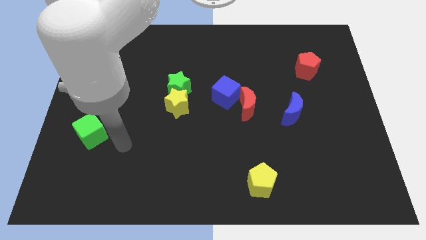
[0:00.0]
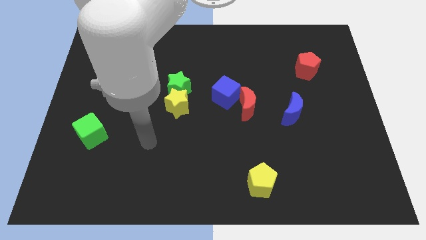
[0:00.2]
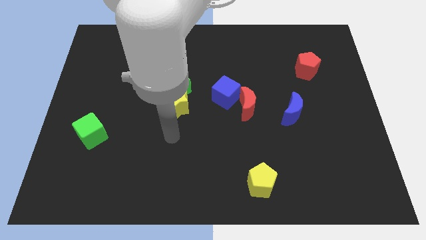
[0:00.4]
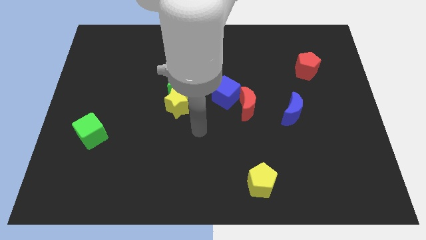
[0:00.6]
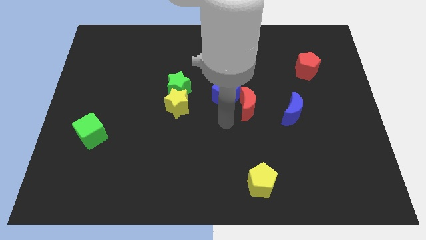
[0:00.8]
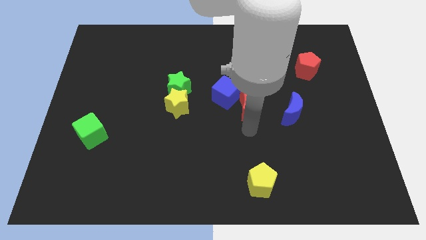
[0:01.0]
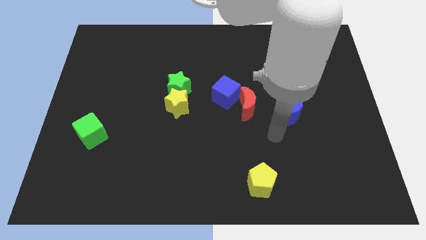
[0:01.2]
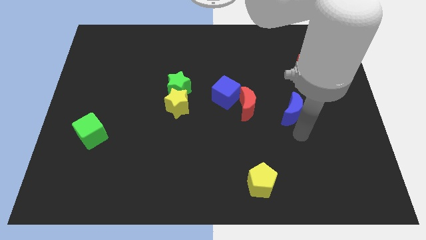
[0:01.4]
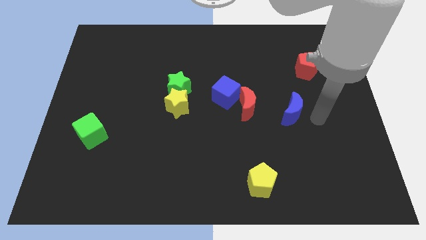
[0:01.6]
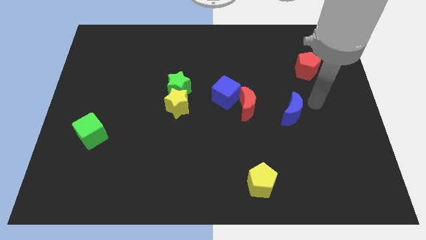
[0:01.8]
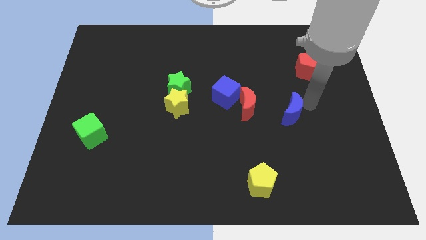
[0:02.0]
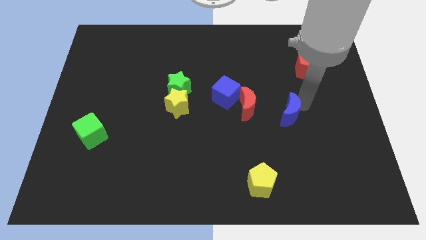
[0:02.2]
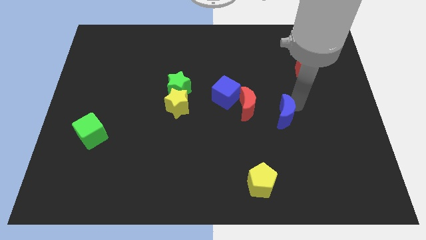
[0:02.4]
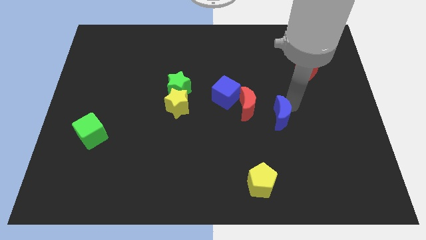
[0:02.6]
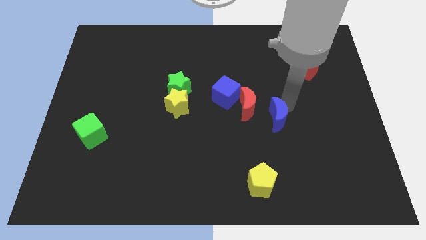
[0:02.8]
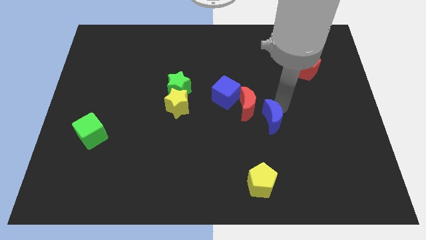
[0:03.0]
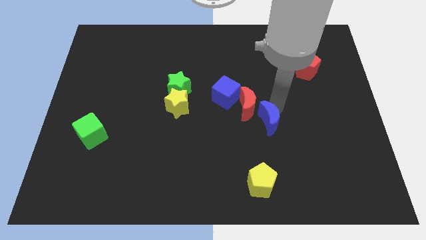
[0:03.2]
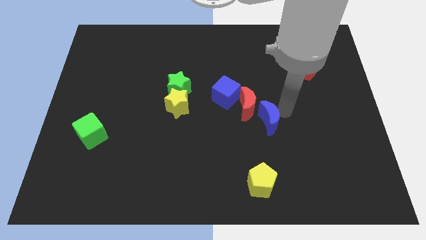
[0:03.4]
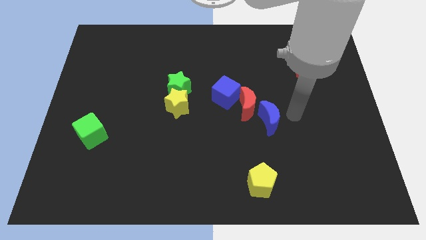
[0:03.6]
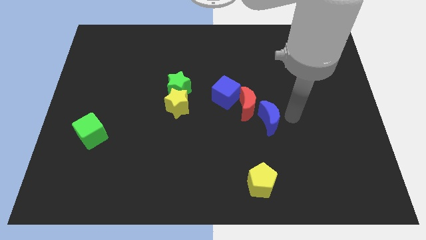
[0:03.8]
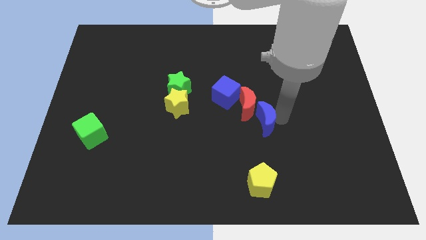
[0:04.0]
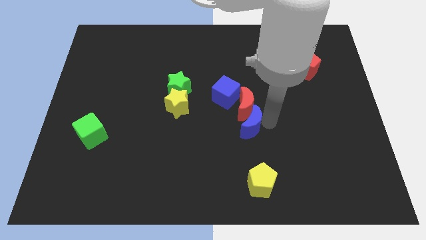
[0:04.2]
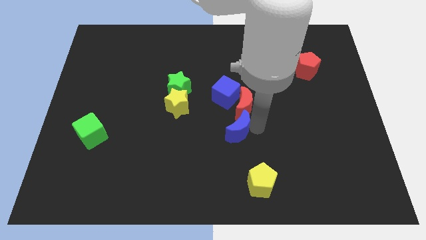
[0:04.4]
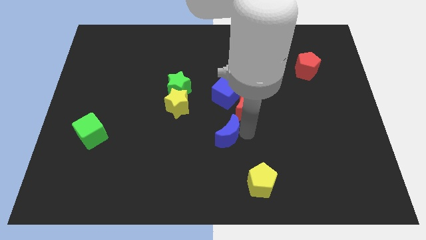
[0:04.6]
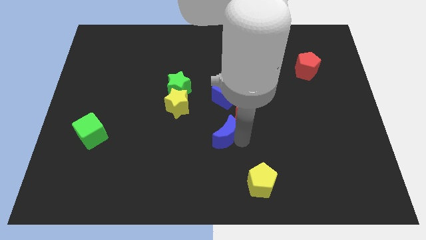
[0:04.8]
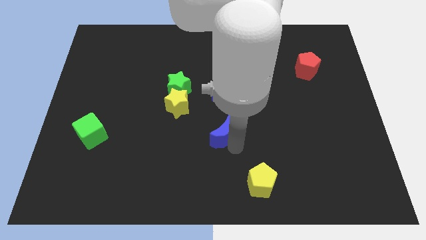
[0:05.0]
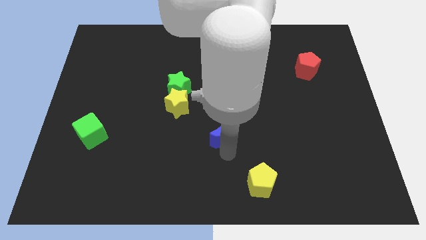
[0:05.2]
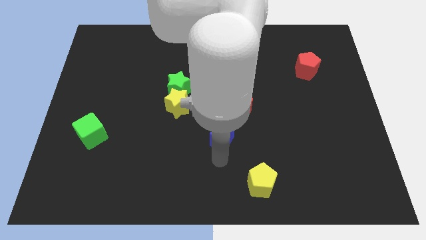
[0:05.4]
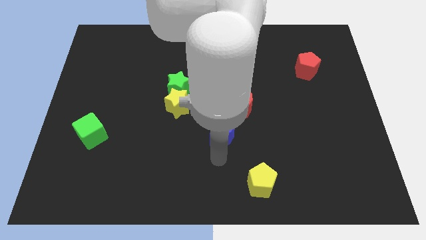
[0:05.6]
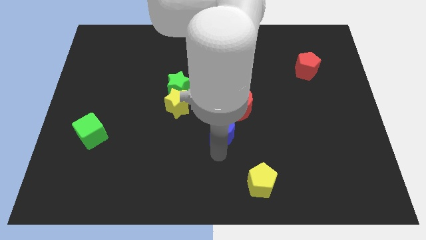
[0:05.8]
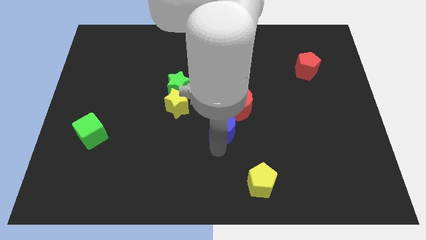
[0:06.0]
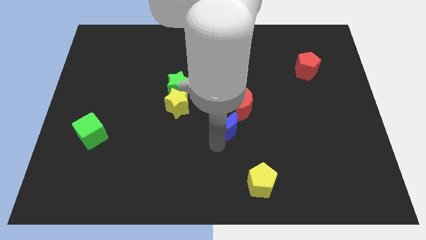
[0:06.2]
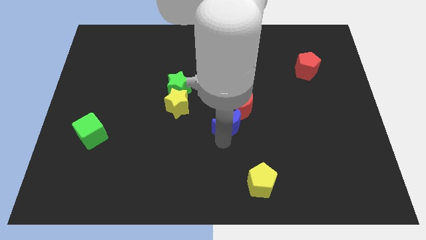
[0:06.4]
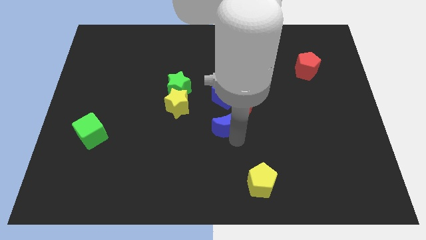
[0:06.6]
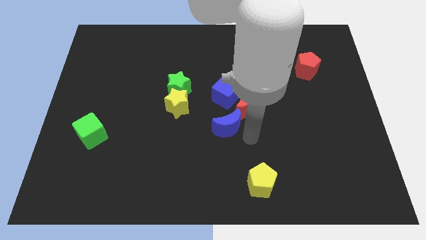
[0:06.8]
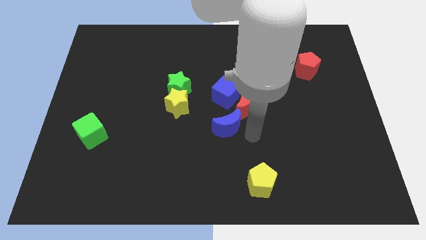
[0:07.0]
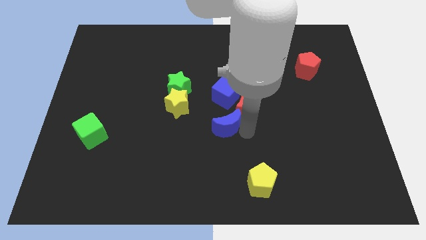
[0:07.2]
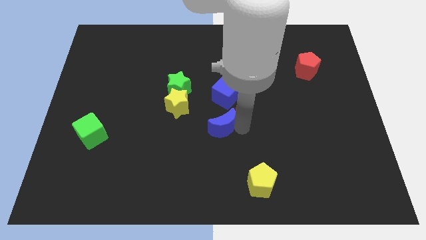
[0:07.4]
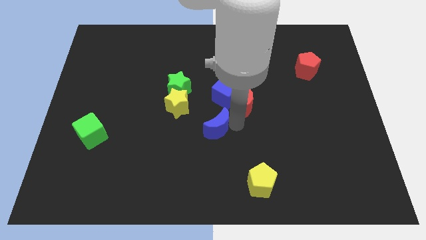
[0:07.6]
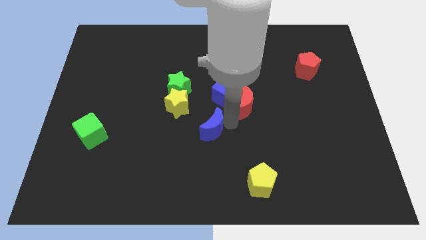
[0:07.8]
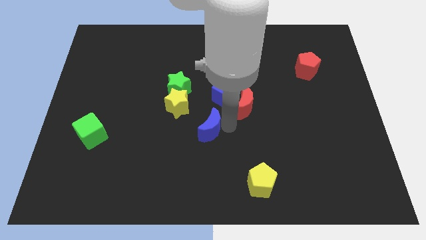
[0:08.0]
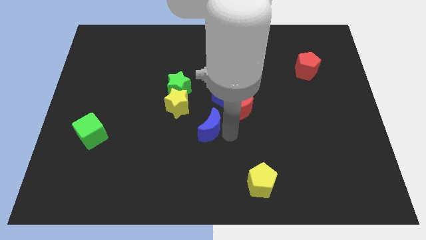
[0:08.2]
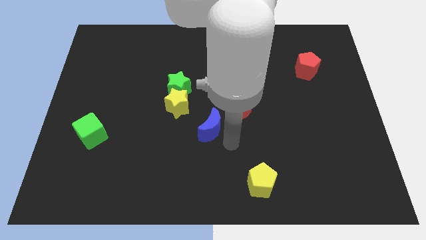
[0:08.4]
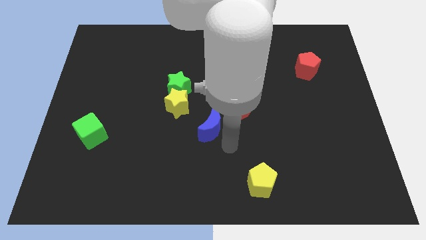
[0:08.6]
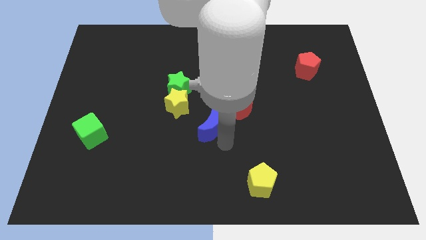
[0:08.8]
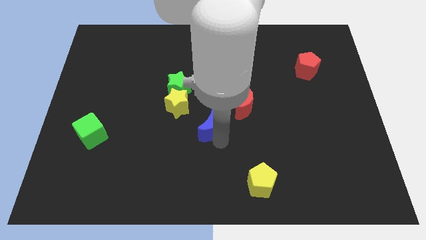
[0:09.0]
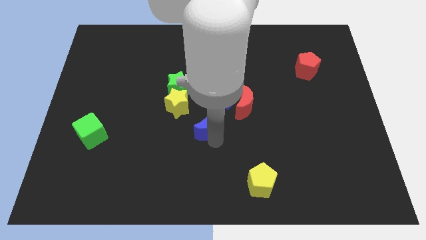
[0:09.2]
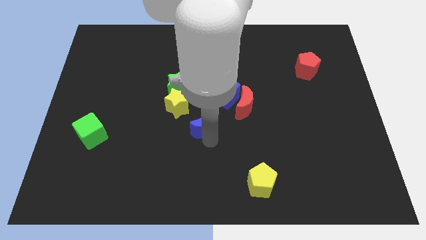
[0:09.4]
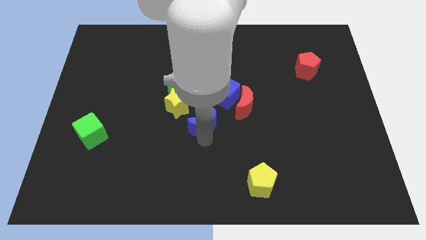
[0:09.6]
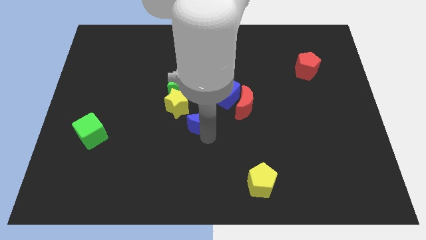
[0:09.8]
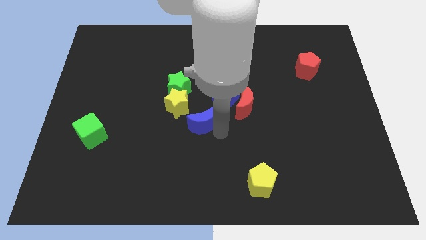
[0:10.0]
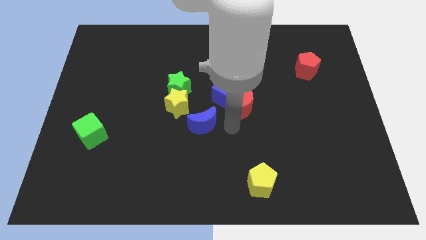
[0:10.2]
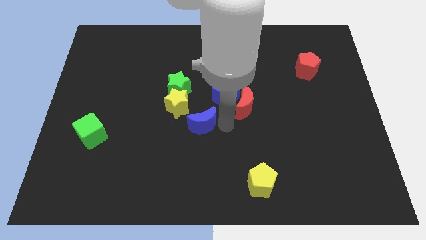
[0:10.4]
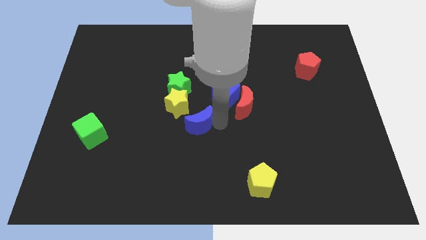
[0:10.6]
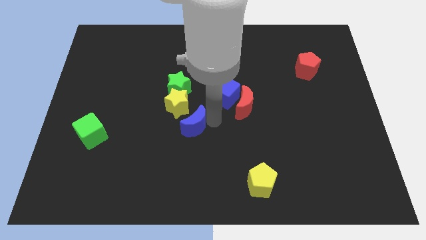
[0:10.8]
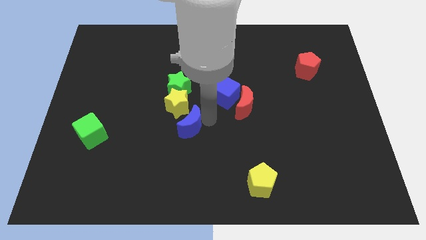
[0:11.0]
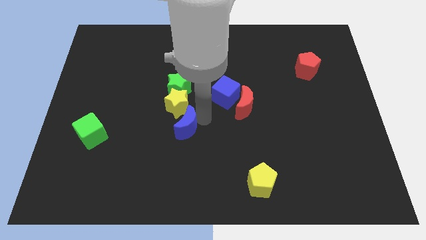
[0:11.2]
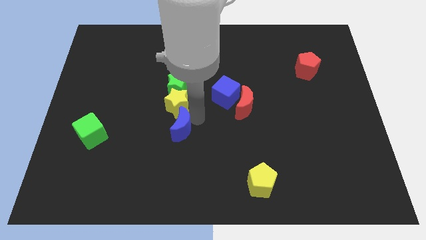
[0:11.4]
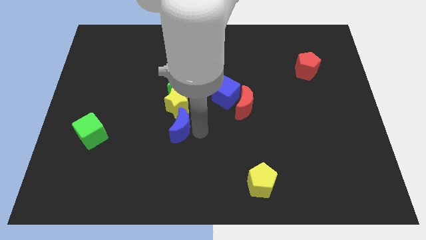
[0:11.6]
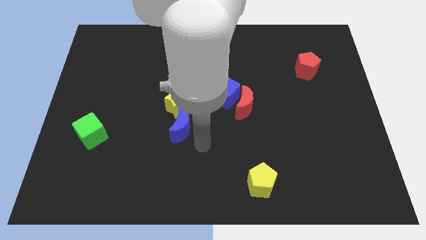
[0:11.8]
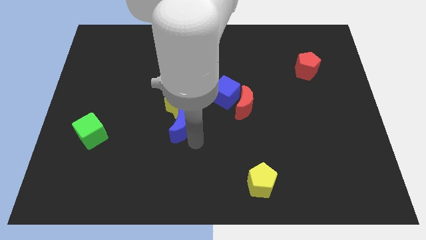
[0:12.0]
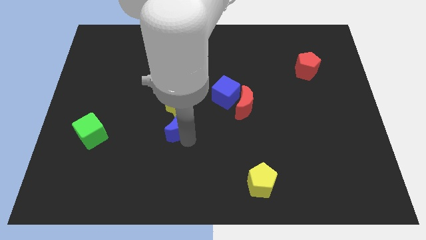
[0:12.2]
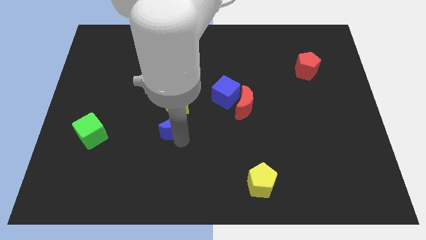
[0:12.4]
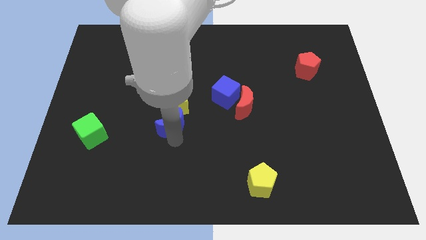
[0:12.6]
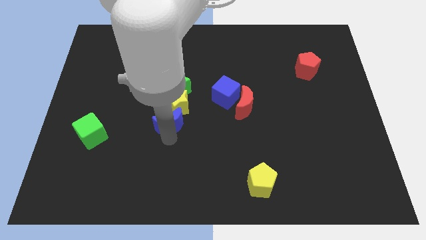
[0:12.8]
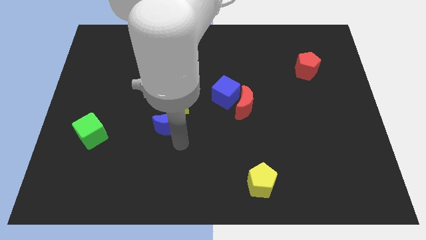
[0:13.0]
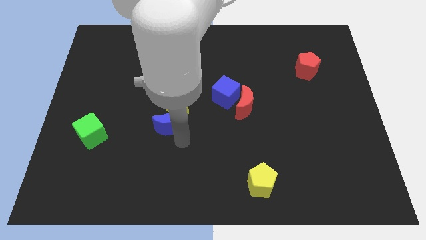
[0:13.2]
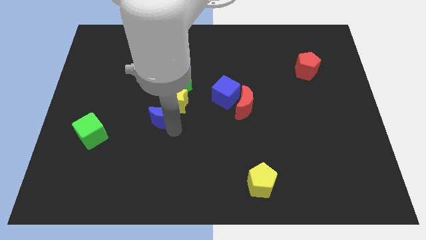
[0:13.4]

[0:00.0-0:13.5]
slide the blue moon to the bottom left of the green star
